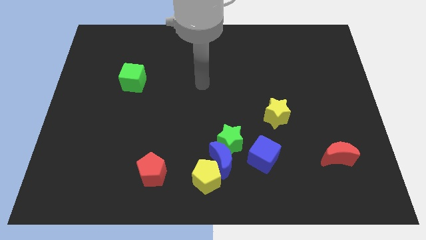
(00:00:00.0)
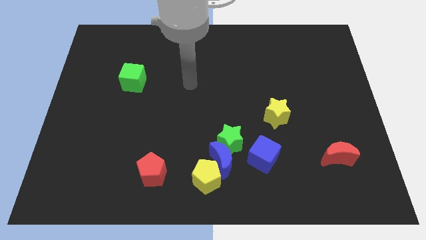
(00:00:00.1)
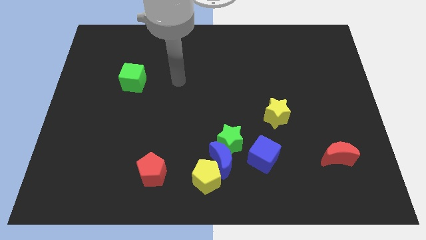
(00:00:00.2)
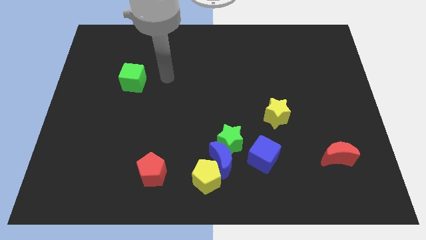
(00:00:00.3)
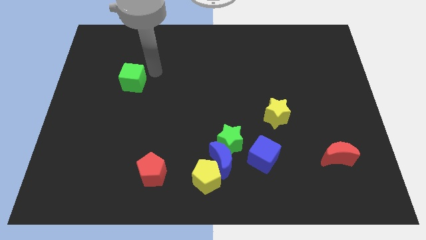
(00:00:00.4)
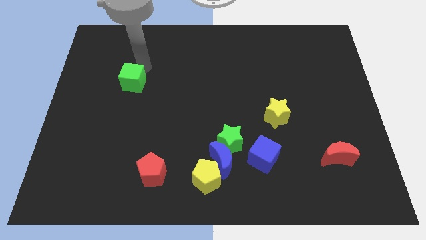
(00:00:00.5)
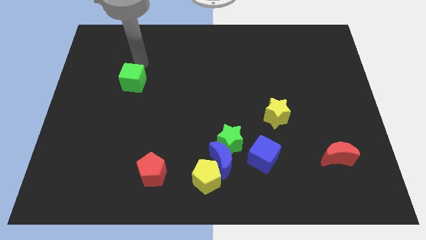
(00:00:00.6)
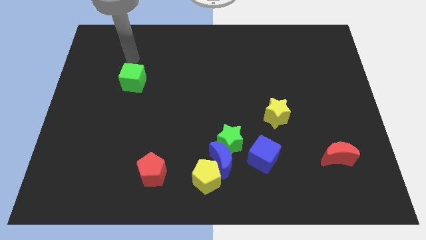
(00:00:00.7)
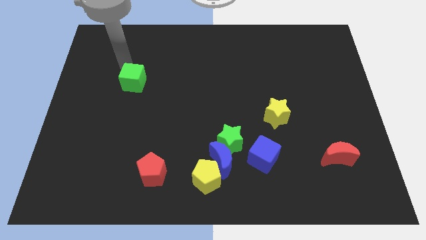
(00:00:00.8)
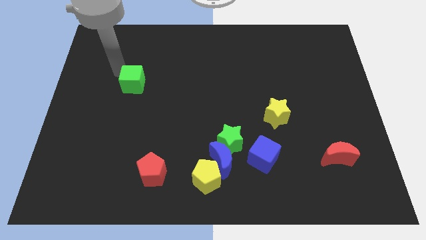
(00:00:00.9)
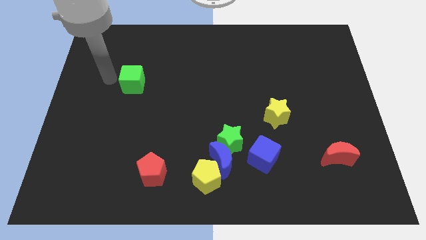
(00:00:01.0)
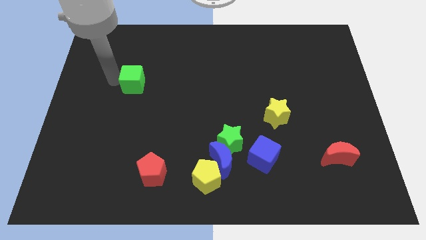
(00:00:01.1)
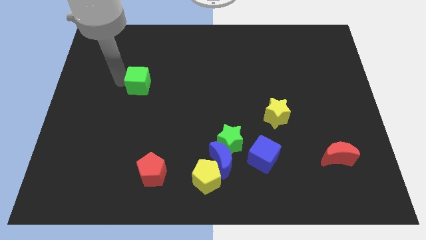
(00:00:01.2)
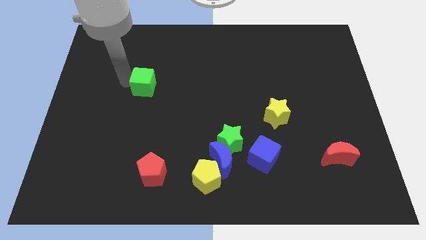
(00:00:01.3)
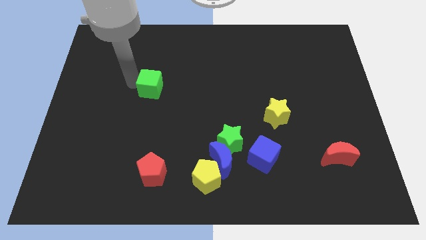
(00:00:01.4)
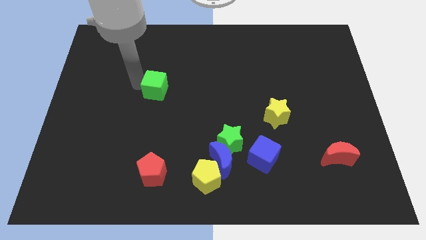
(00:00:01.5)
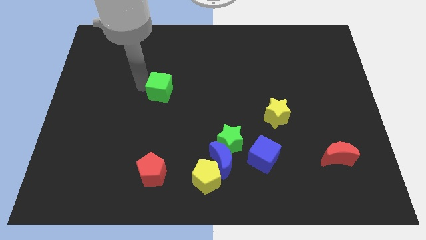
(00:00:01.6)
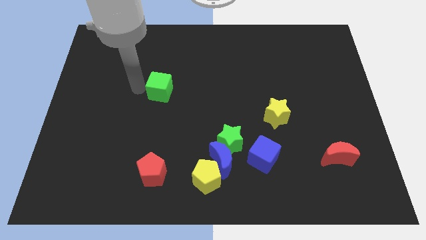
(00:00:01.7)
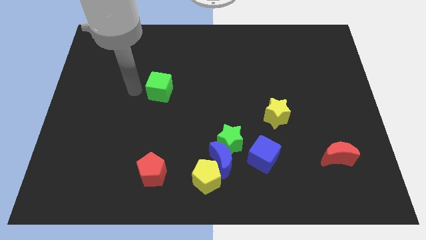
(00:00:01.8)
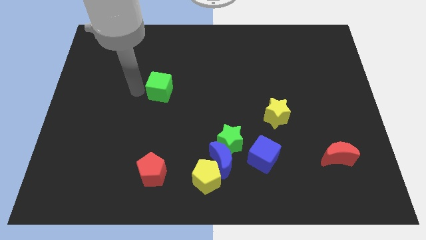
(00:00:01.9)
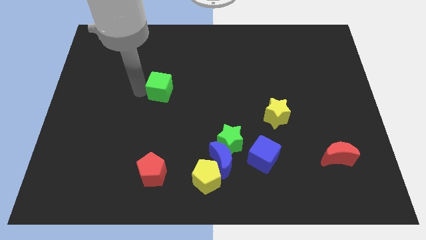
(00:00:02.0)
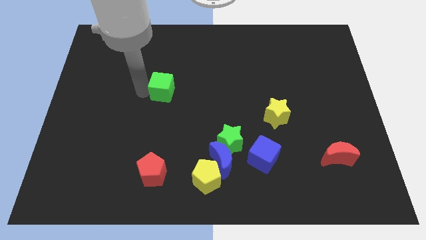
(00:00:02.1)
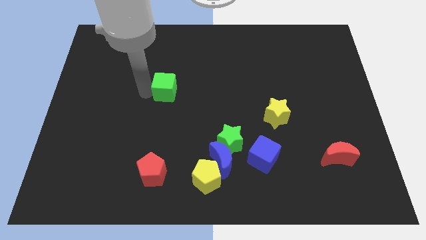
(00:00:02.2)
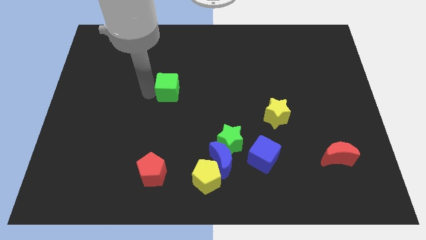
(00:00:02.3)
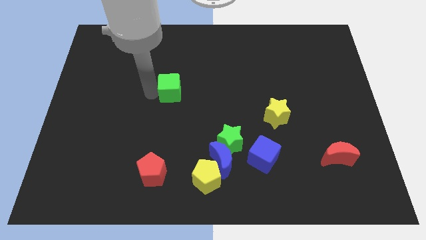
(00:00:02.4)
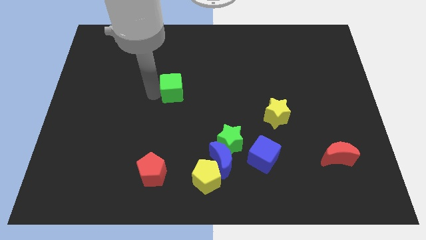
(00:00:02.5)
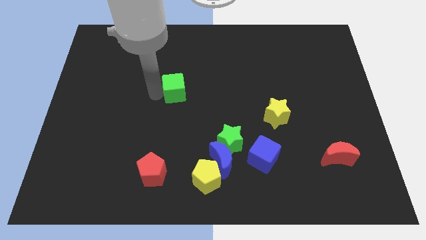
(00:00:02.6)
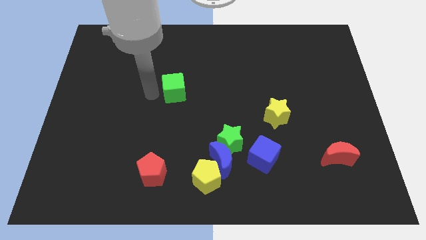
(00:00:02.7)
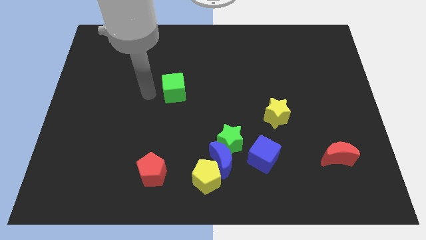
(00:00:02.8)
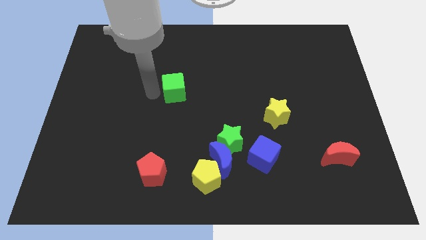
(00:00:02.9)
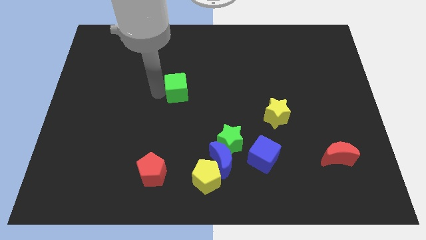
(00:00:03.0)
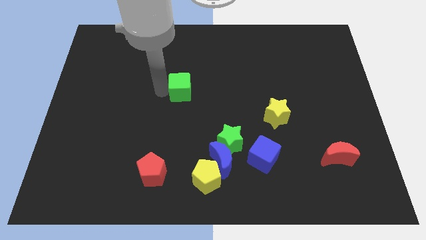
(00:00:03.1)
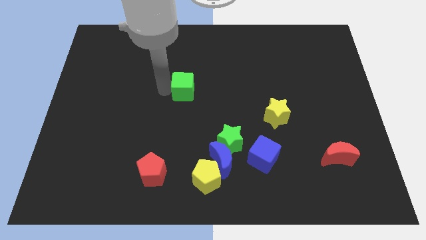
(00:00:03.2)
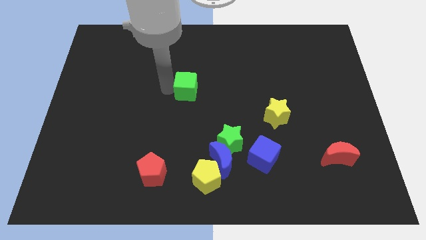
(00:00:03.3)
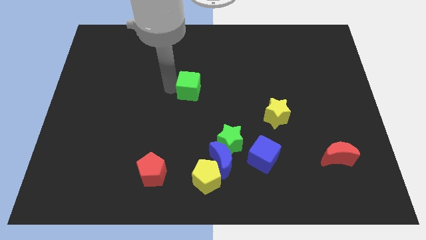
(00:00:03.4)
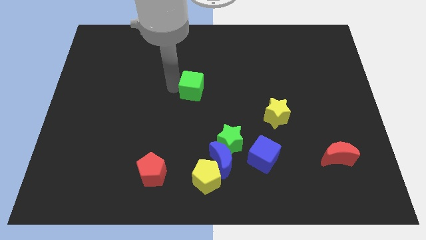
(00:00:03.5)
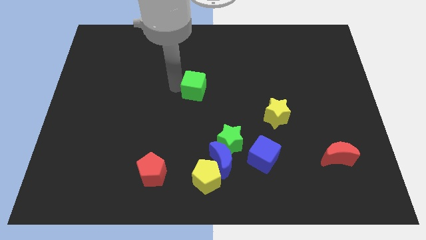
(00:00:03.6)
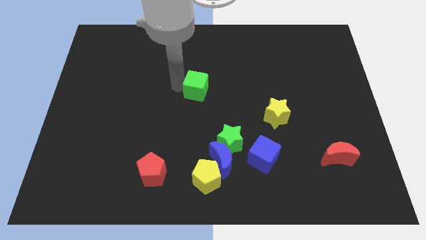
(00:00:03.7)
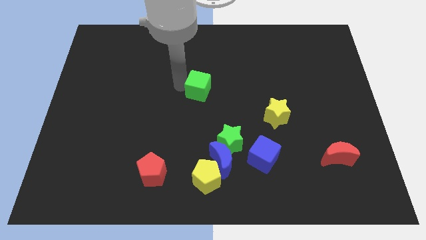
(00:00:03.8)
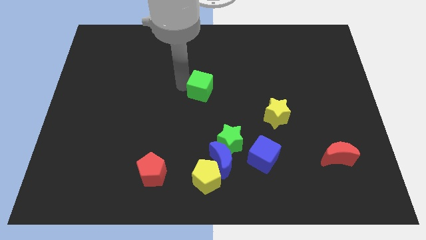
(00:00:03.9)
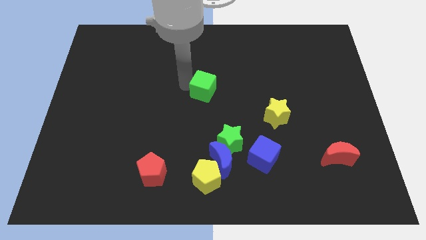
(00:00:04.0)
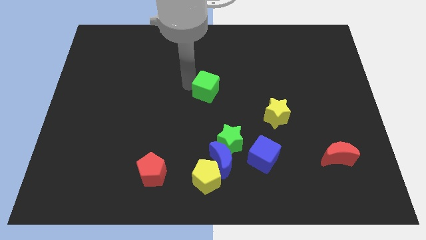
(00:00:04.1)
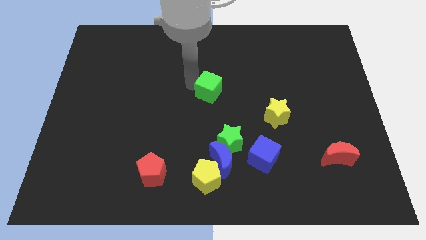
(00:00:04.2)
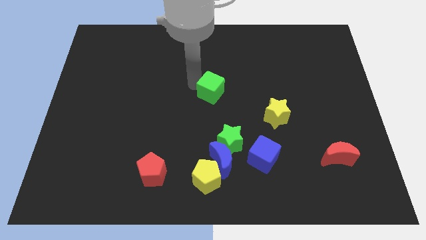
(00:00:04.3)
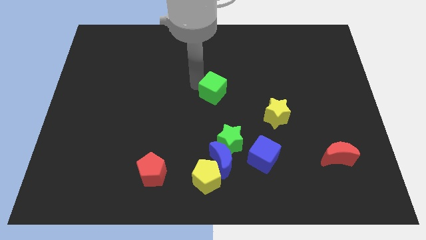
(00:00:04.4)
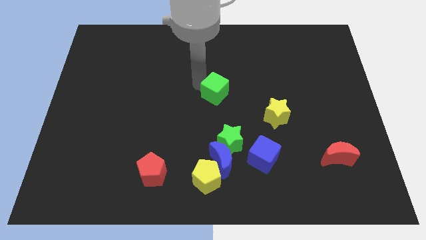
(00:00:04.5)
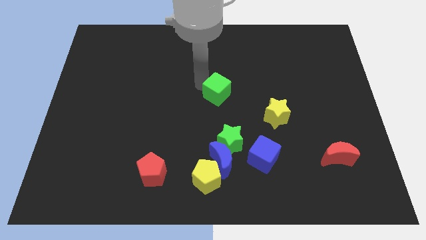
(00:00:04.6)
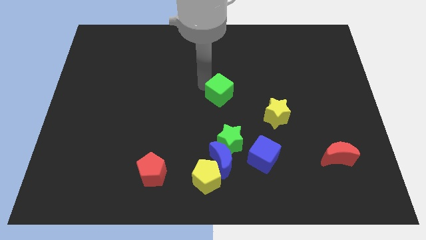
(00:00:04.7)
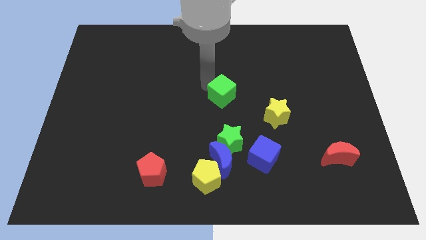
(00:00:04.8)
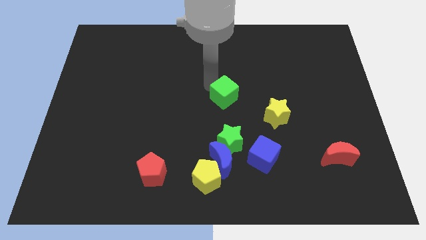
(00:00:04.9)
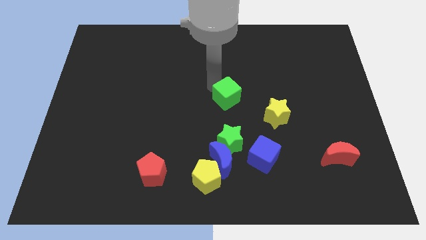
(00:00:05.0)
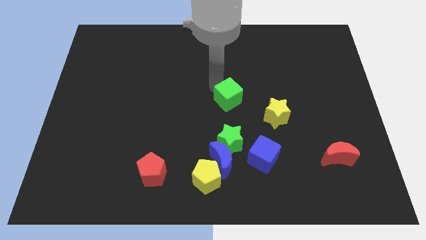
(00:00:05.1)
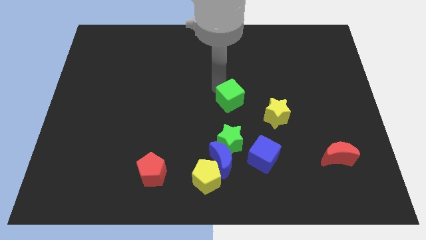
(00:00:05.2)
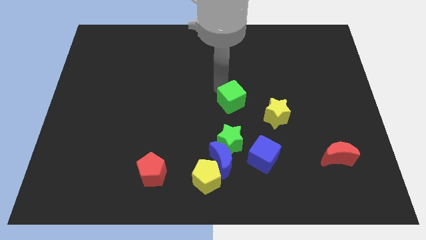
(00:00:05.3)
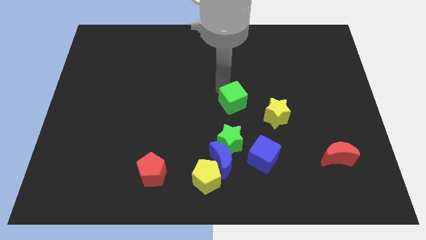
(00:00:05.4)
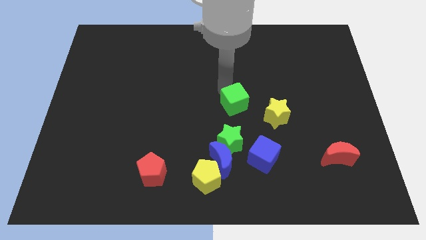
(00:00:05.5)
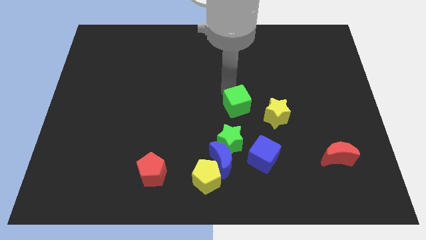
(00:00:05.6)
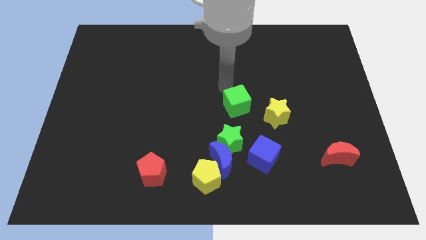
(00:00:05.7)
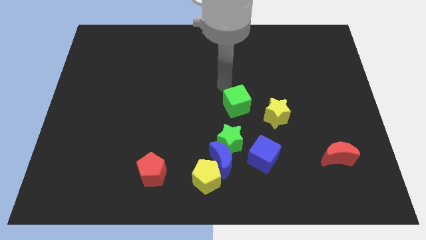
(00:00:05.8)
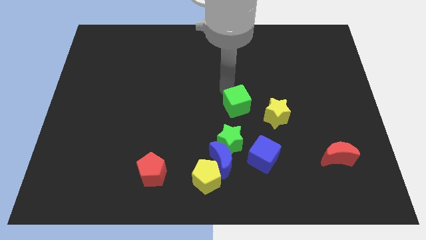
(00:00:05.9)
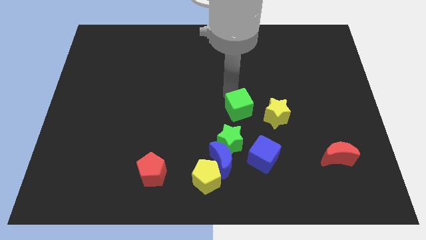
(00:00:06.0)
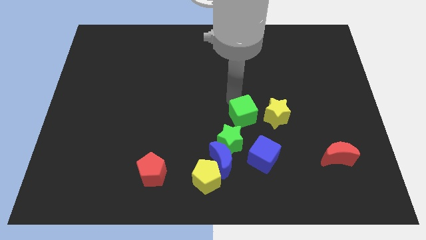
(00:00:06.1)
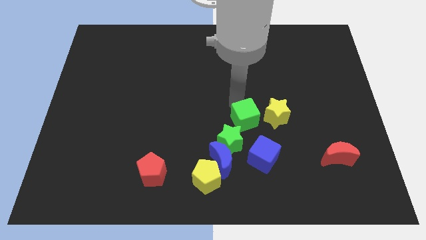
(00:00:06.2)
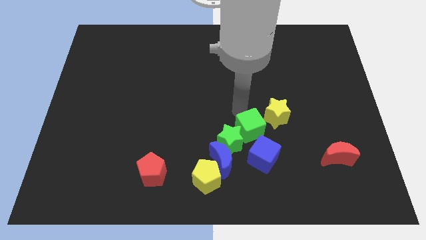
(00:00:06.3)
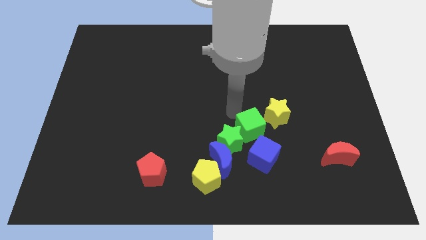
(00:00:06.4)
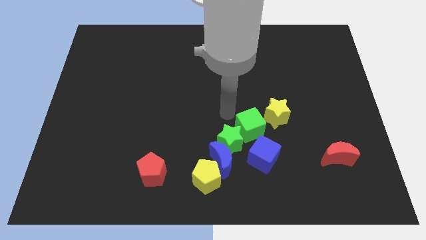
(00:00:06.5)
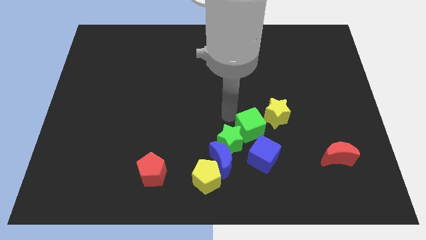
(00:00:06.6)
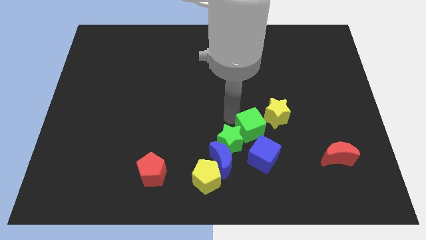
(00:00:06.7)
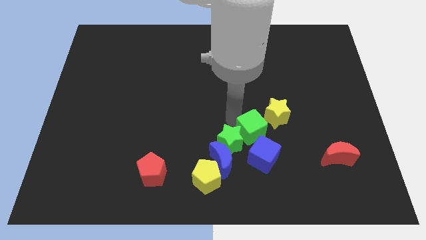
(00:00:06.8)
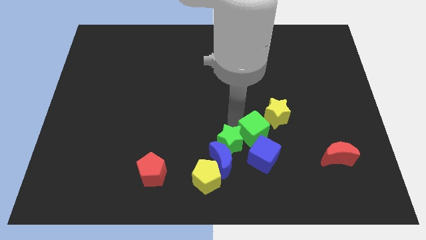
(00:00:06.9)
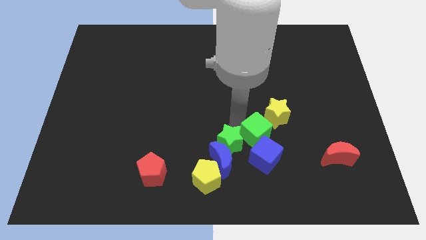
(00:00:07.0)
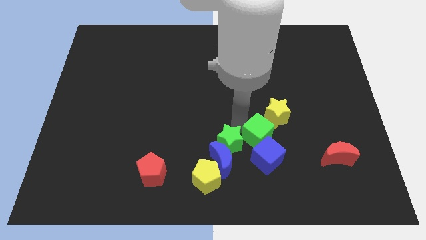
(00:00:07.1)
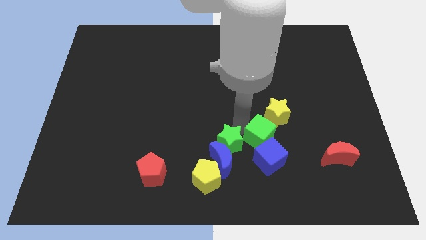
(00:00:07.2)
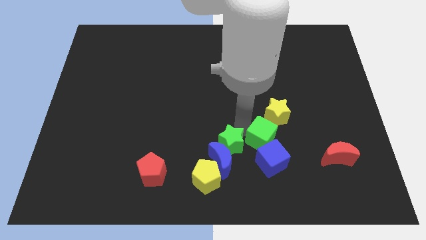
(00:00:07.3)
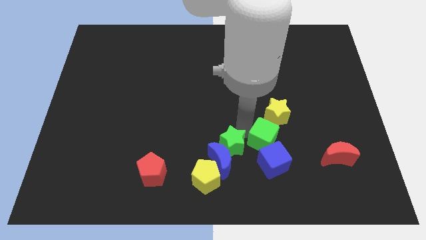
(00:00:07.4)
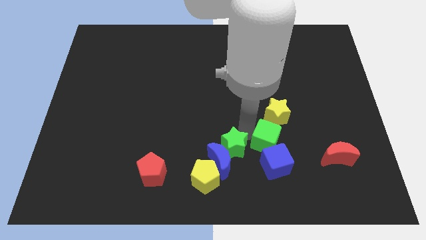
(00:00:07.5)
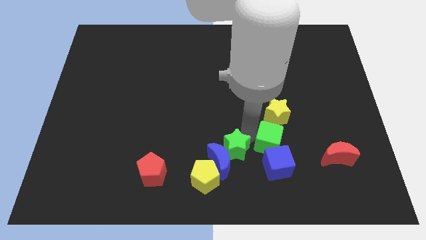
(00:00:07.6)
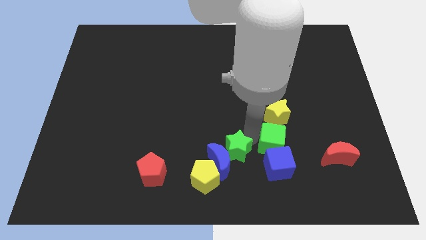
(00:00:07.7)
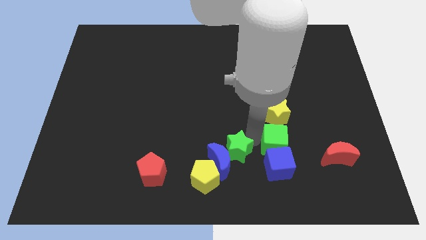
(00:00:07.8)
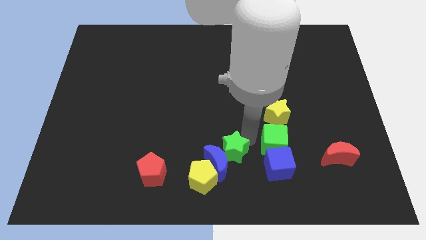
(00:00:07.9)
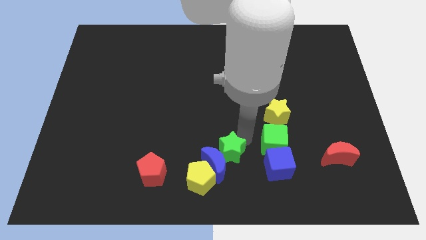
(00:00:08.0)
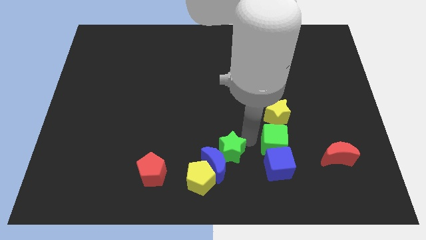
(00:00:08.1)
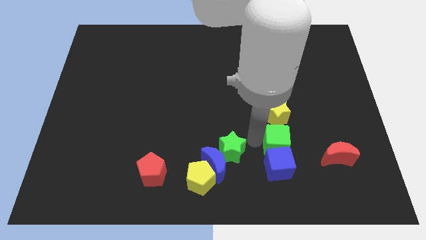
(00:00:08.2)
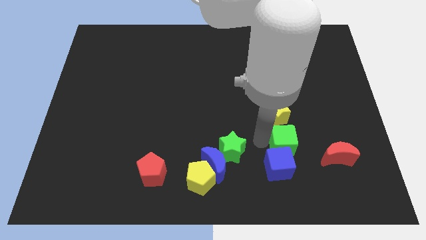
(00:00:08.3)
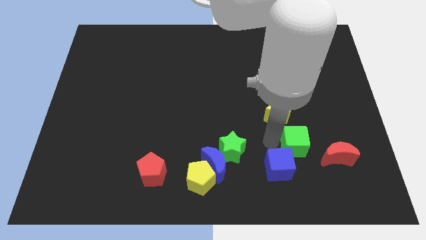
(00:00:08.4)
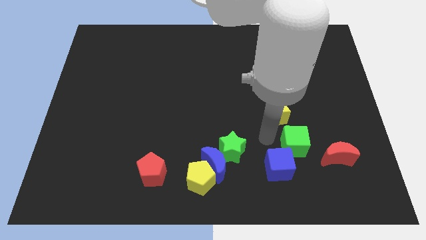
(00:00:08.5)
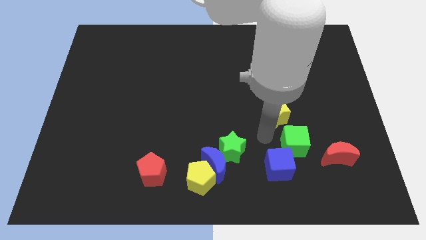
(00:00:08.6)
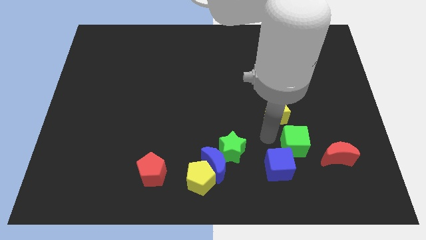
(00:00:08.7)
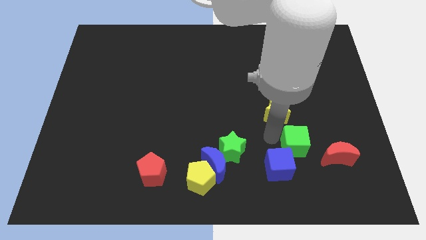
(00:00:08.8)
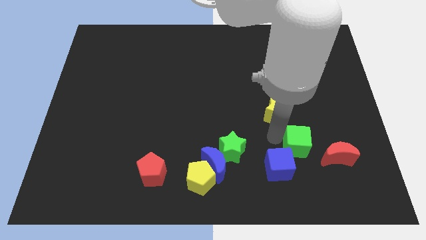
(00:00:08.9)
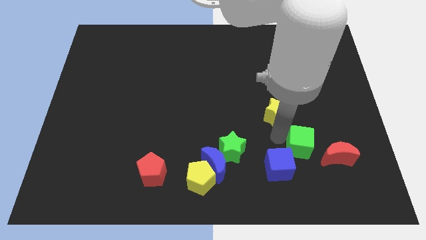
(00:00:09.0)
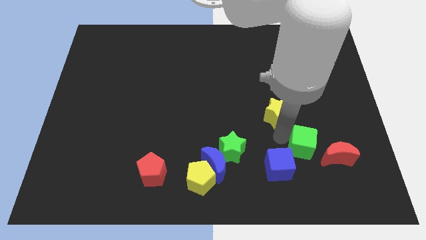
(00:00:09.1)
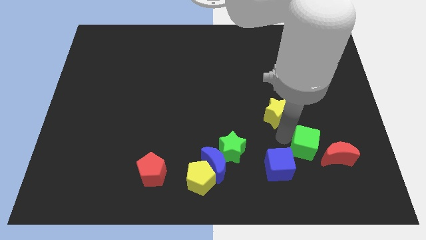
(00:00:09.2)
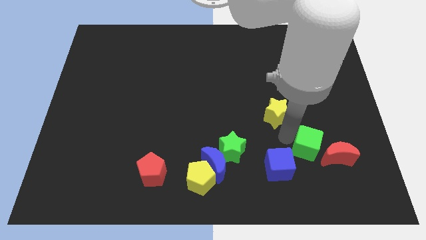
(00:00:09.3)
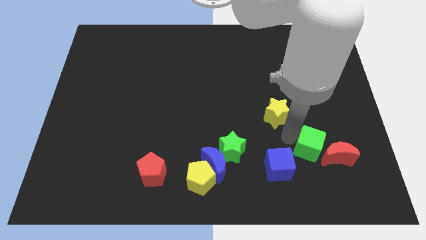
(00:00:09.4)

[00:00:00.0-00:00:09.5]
slide the green cube towards the red moon
